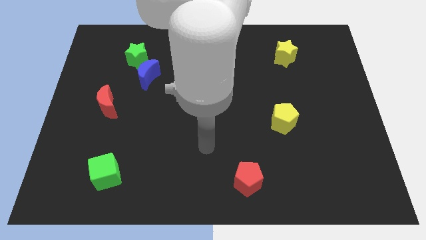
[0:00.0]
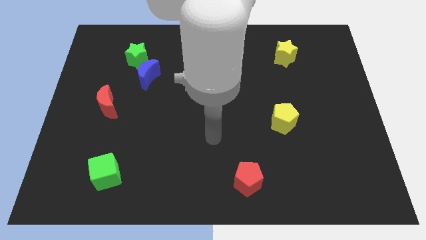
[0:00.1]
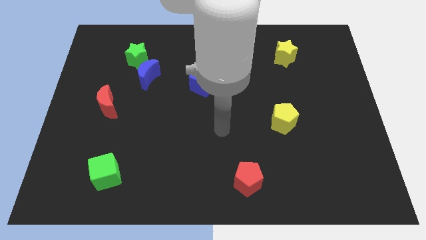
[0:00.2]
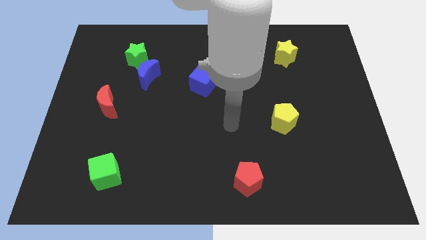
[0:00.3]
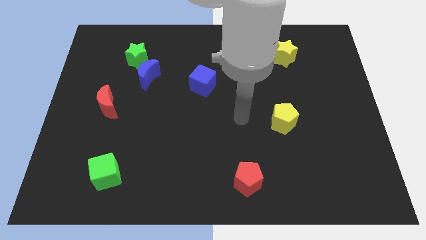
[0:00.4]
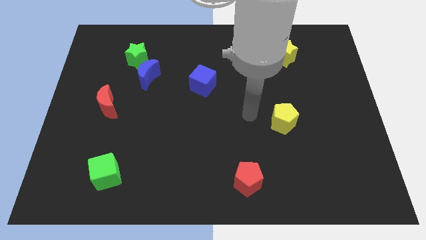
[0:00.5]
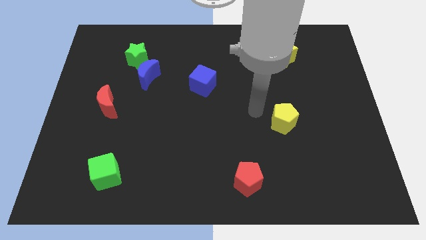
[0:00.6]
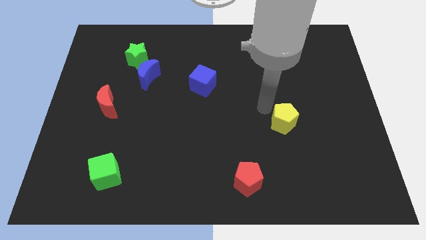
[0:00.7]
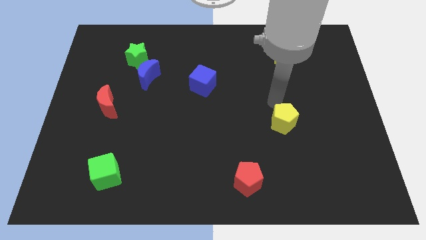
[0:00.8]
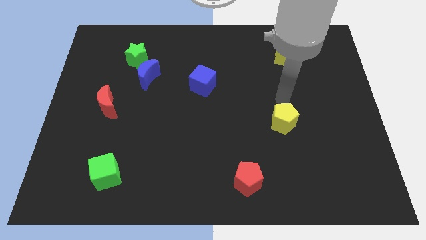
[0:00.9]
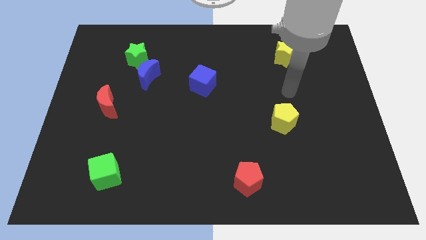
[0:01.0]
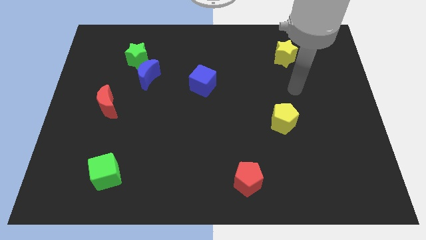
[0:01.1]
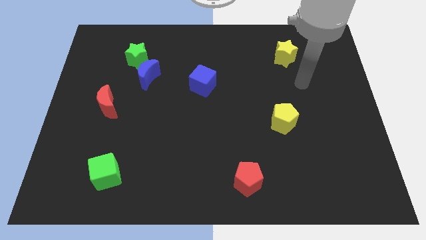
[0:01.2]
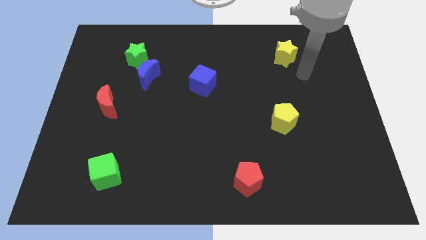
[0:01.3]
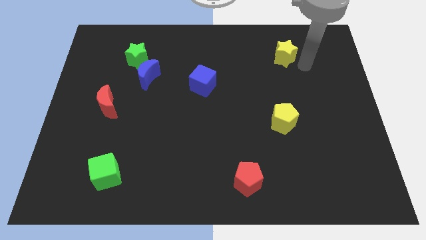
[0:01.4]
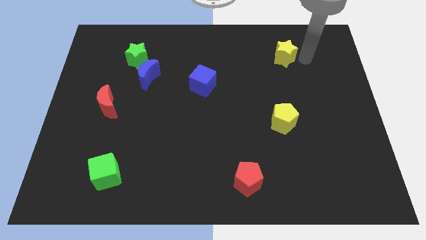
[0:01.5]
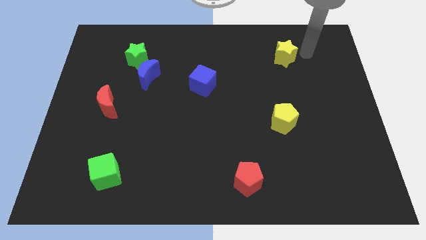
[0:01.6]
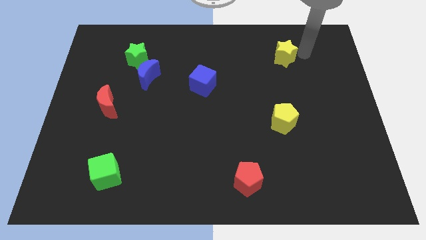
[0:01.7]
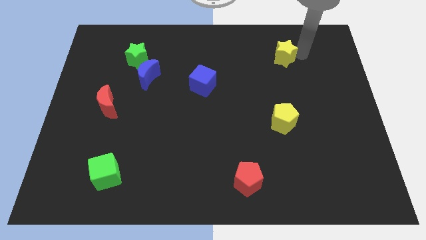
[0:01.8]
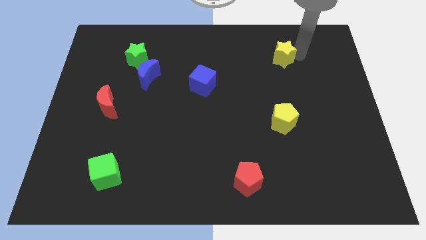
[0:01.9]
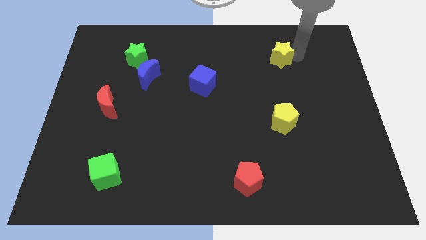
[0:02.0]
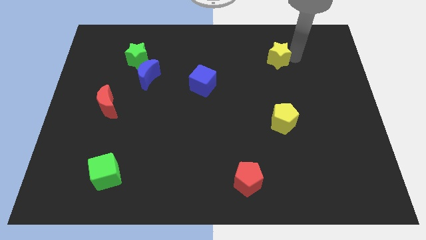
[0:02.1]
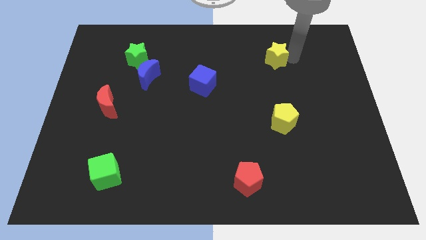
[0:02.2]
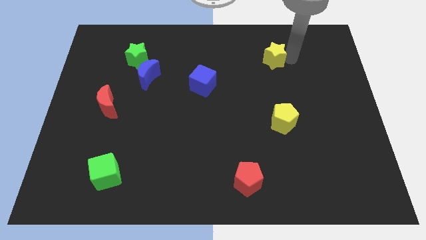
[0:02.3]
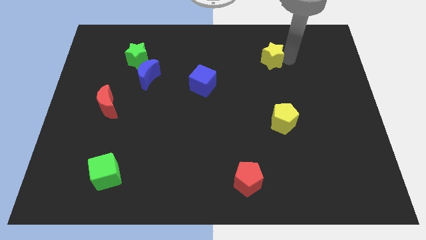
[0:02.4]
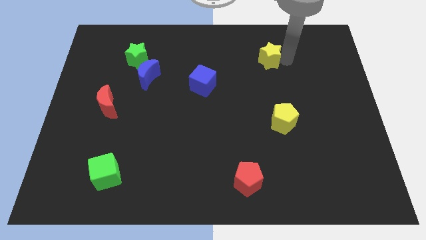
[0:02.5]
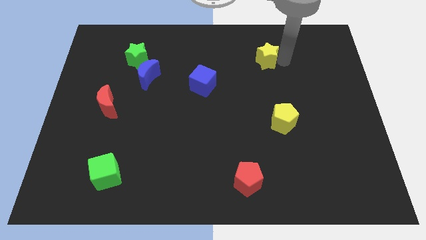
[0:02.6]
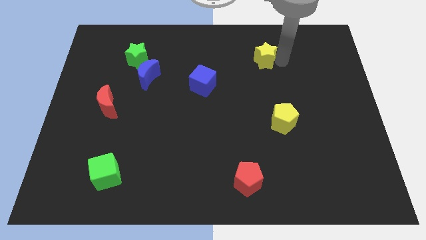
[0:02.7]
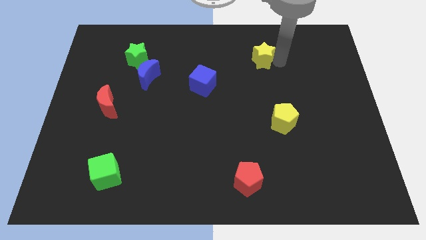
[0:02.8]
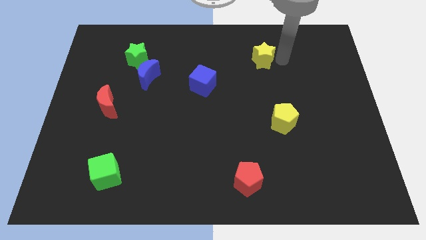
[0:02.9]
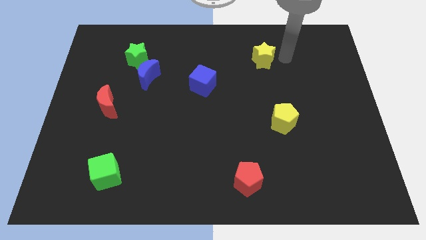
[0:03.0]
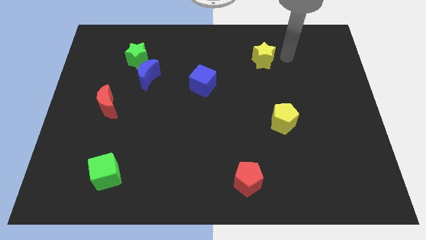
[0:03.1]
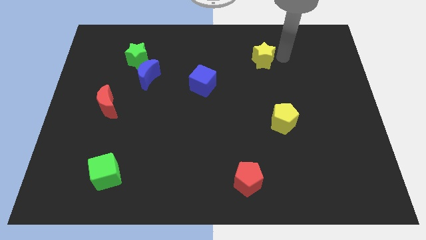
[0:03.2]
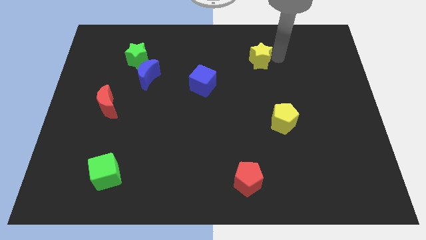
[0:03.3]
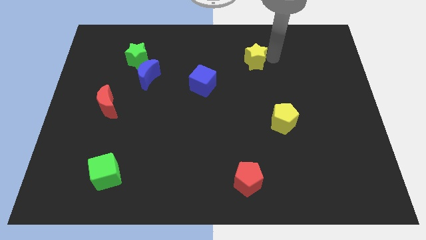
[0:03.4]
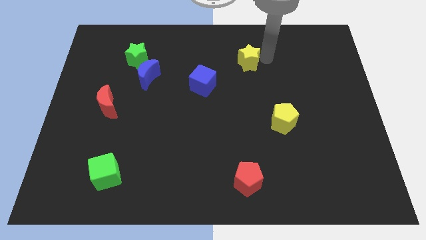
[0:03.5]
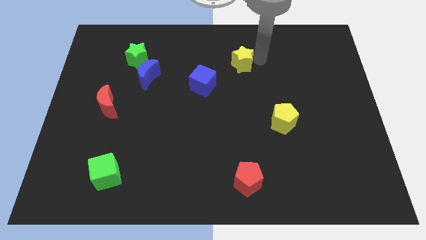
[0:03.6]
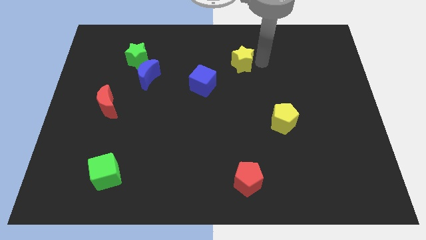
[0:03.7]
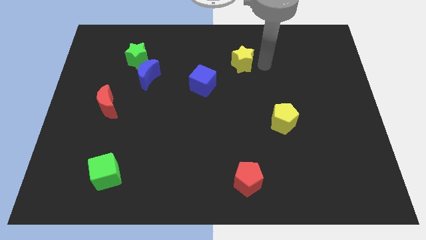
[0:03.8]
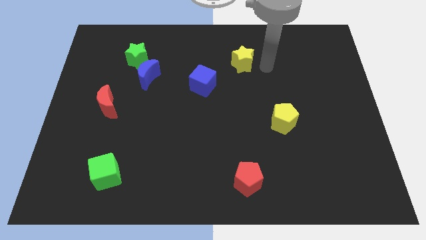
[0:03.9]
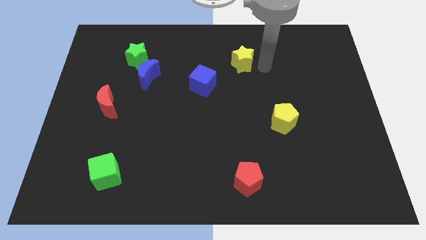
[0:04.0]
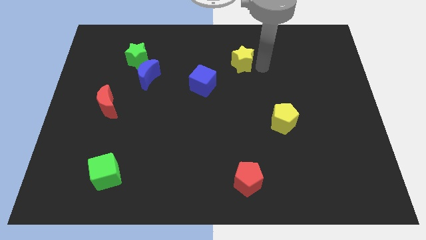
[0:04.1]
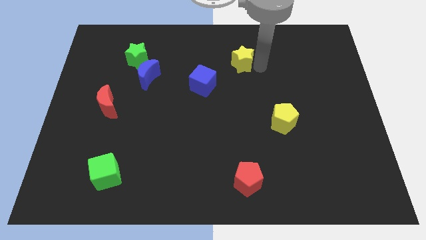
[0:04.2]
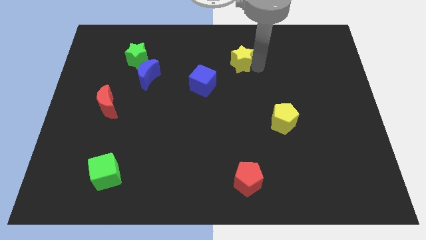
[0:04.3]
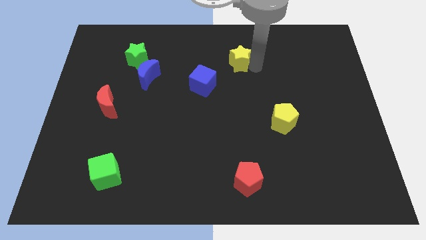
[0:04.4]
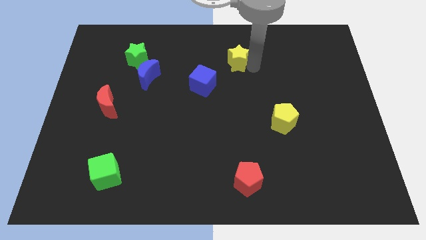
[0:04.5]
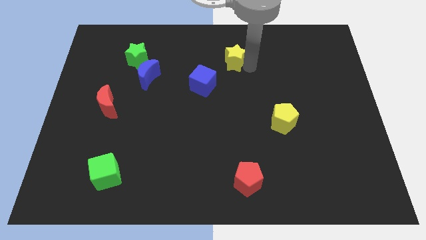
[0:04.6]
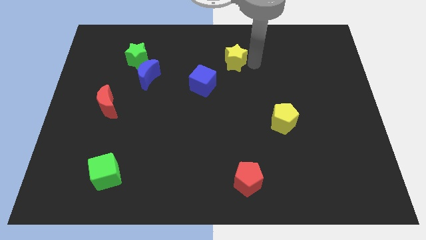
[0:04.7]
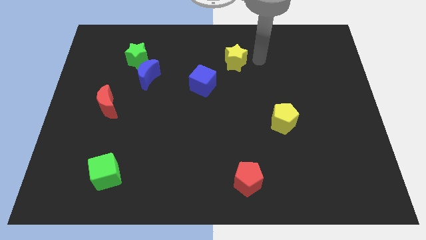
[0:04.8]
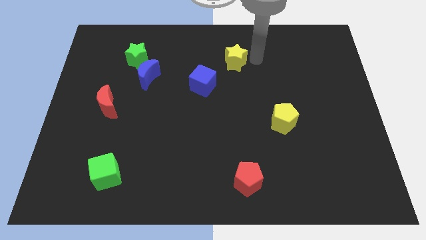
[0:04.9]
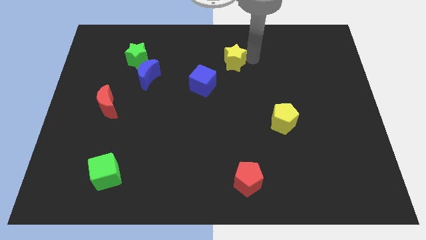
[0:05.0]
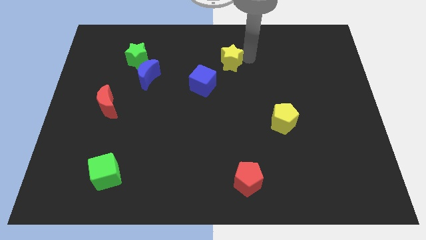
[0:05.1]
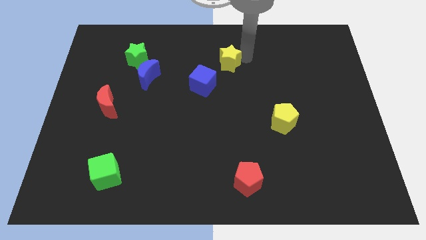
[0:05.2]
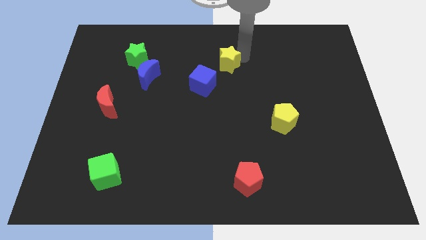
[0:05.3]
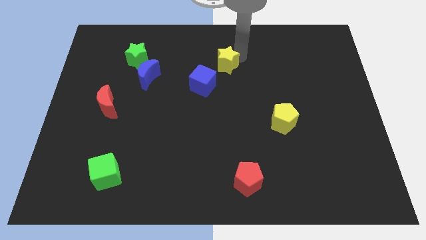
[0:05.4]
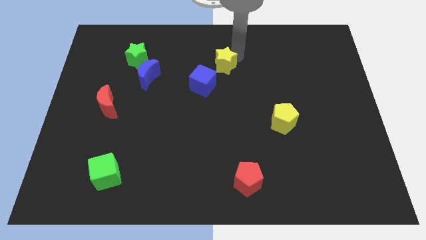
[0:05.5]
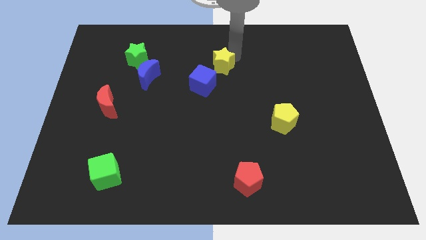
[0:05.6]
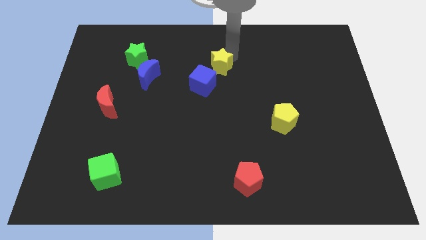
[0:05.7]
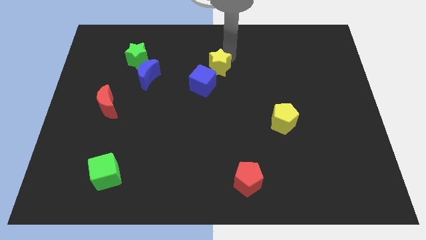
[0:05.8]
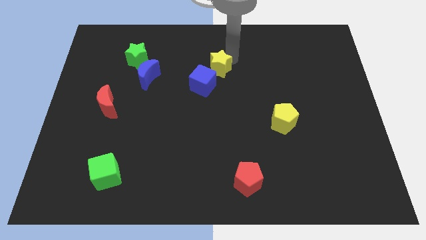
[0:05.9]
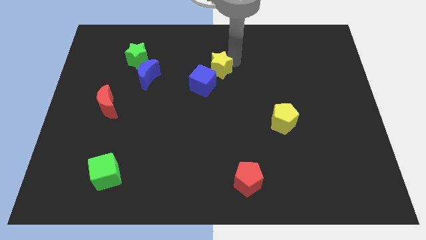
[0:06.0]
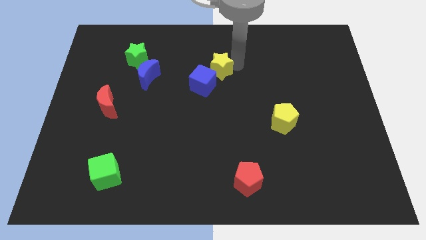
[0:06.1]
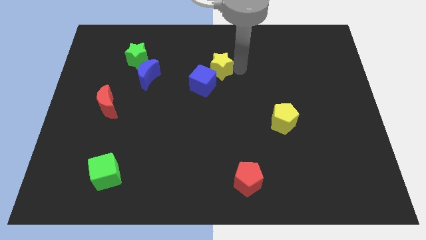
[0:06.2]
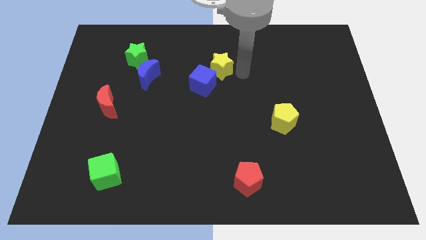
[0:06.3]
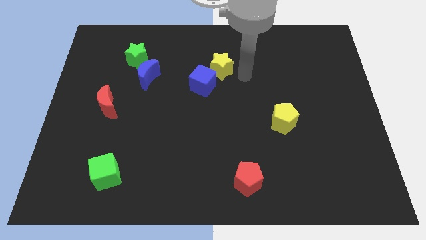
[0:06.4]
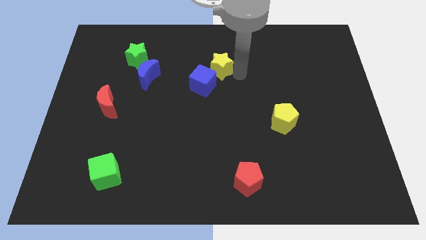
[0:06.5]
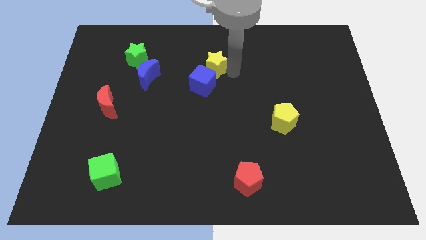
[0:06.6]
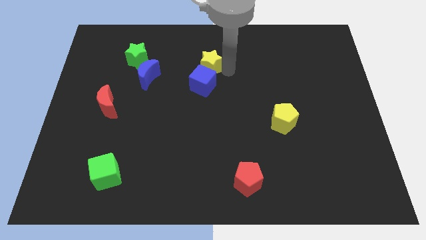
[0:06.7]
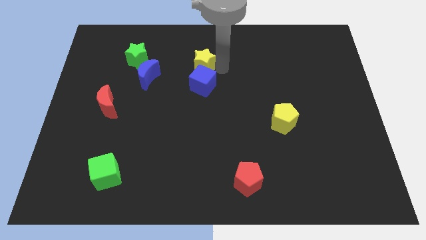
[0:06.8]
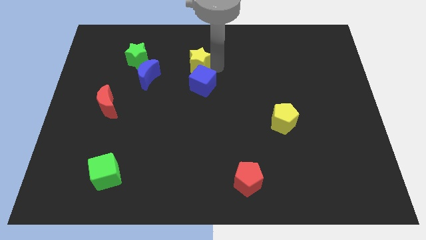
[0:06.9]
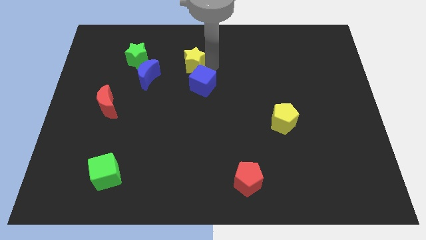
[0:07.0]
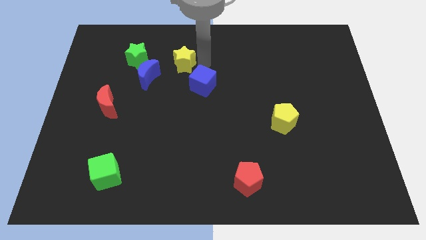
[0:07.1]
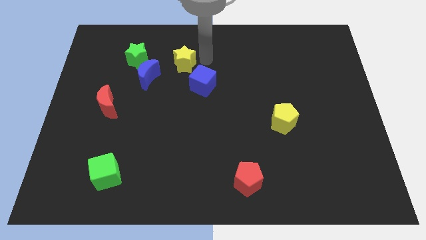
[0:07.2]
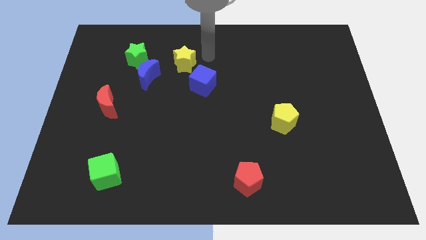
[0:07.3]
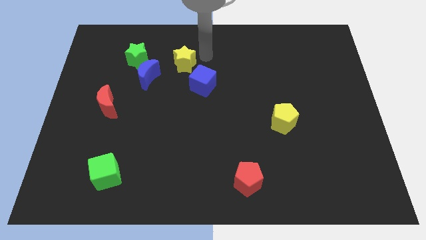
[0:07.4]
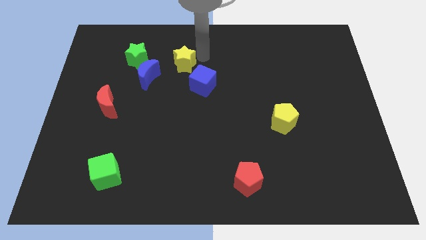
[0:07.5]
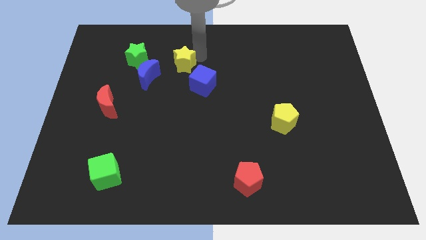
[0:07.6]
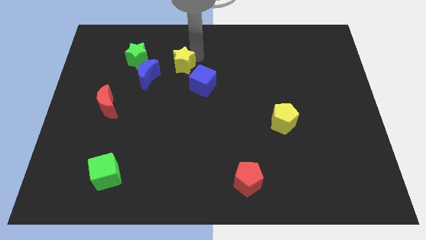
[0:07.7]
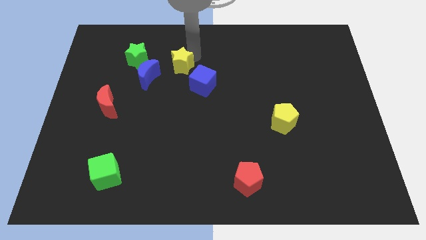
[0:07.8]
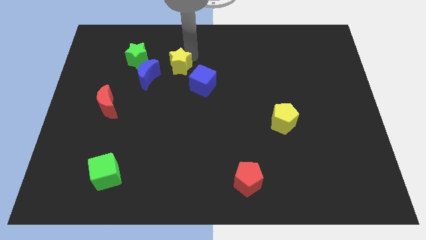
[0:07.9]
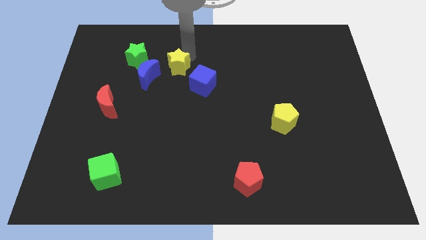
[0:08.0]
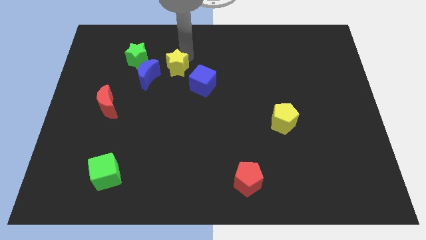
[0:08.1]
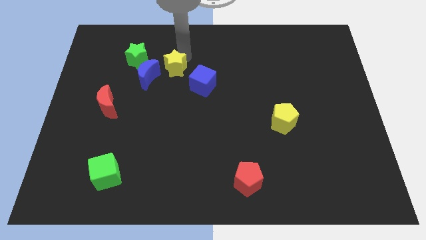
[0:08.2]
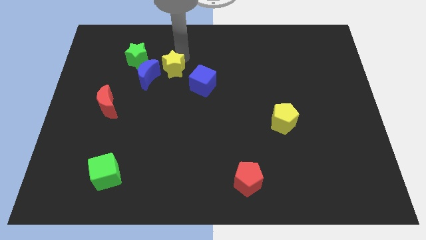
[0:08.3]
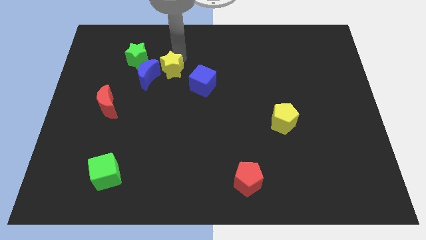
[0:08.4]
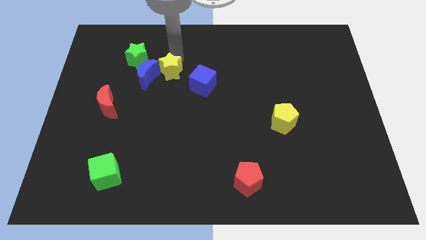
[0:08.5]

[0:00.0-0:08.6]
push the yellow star towards the blue moon
